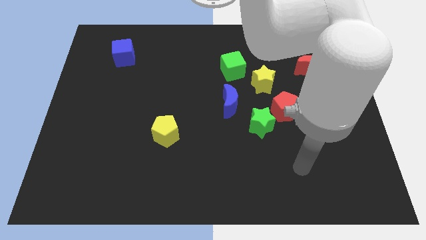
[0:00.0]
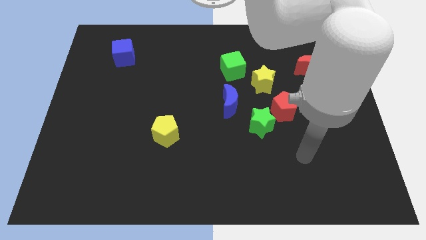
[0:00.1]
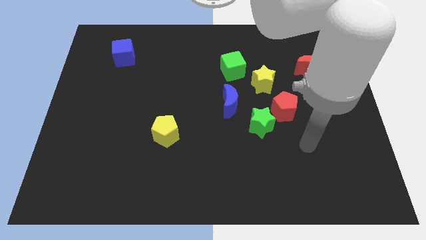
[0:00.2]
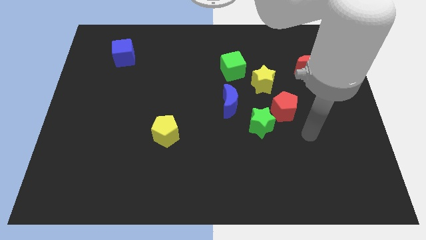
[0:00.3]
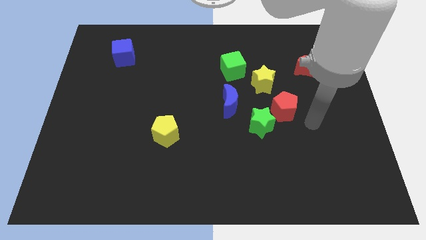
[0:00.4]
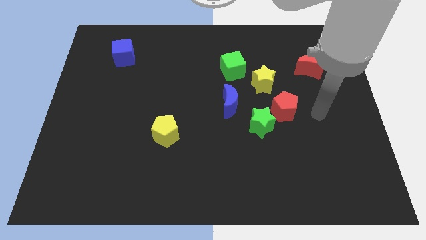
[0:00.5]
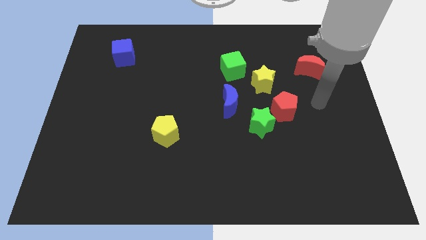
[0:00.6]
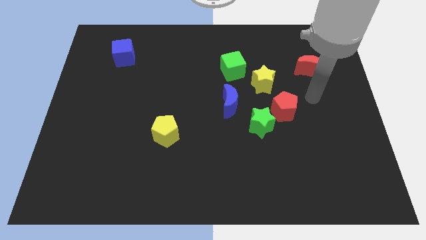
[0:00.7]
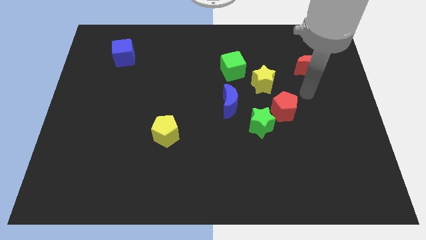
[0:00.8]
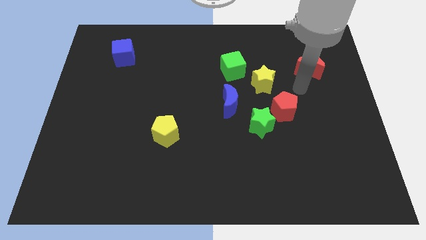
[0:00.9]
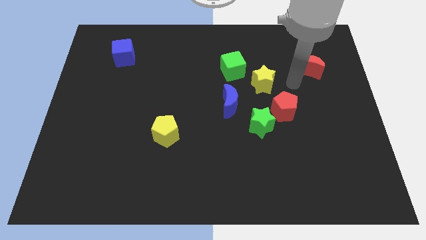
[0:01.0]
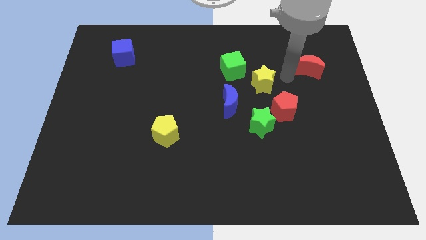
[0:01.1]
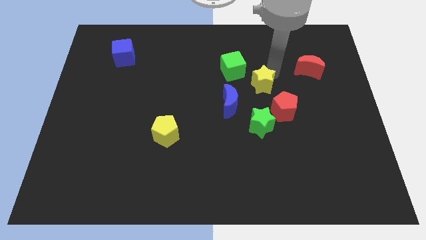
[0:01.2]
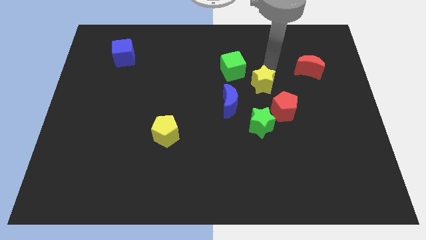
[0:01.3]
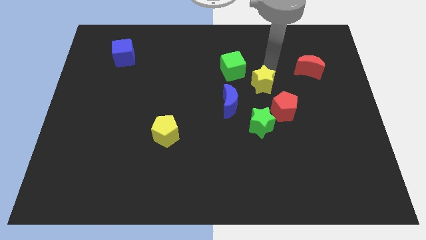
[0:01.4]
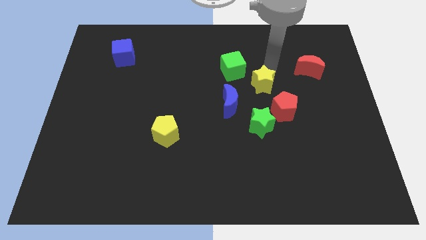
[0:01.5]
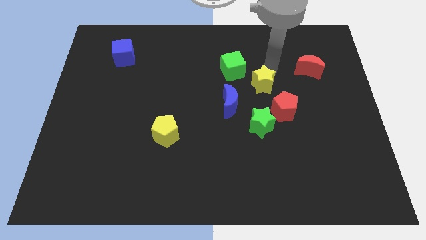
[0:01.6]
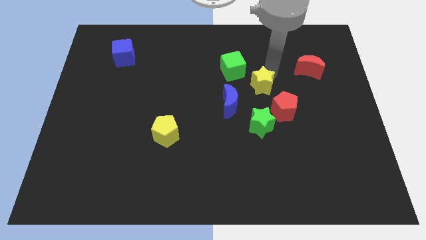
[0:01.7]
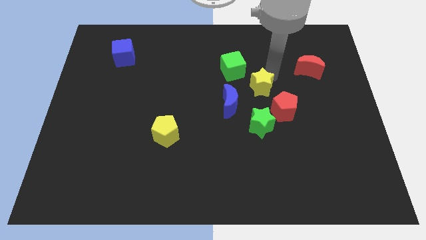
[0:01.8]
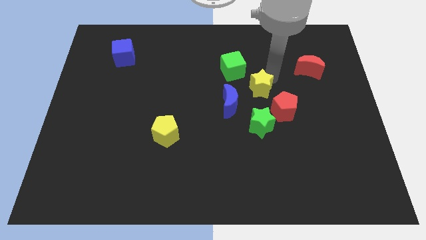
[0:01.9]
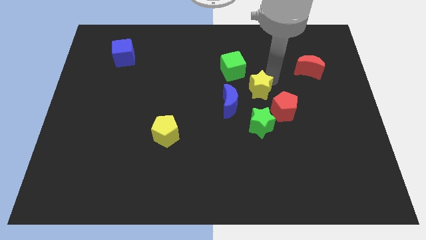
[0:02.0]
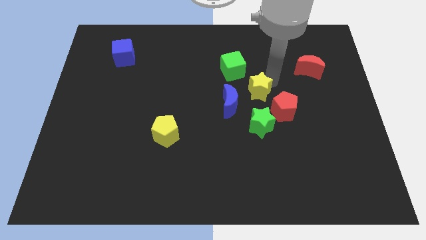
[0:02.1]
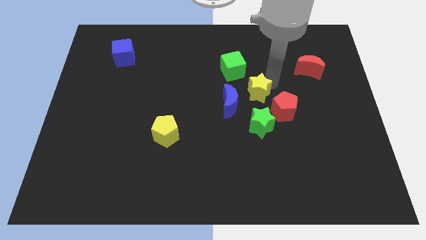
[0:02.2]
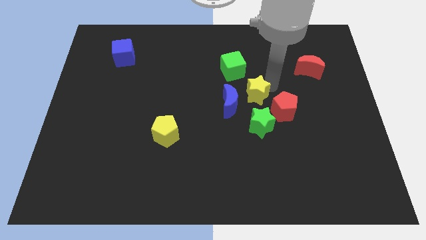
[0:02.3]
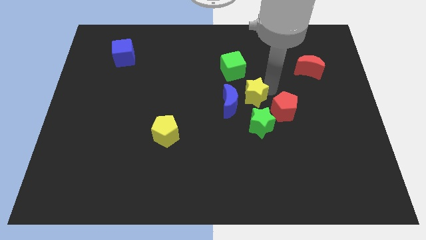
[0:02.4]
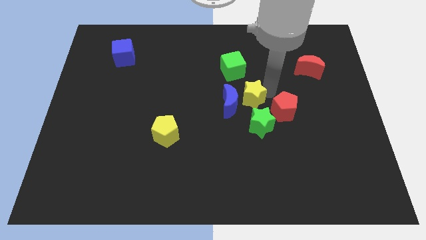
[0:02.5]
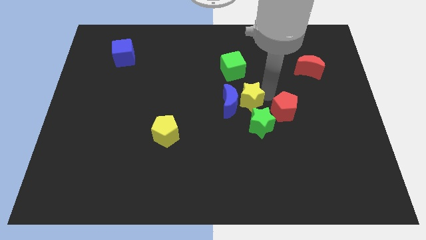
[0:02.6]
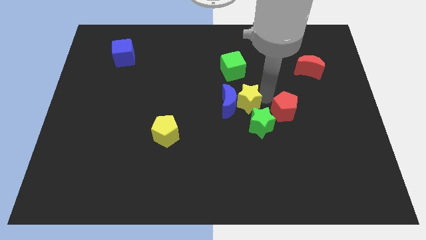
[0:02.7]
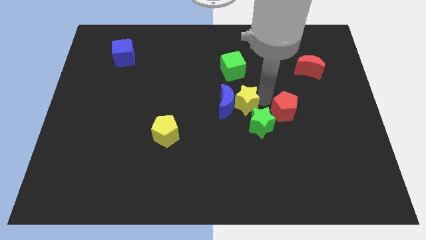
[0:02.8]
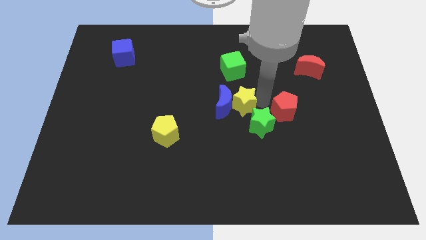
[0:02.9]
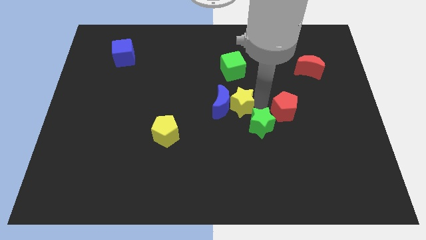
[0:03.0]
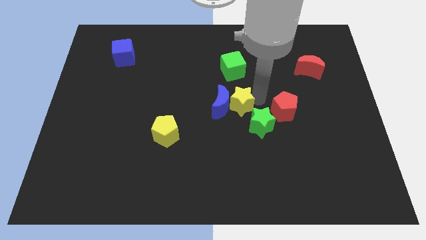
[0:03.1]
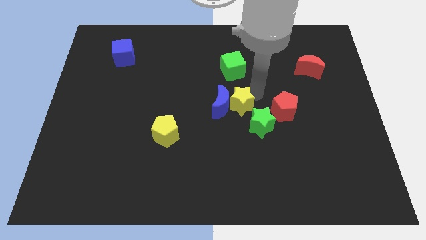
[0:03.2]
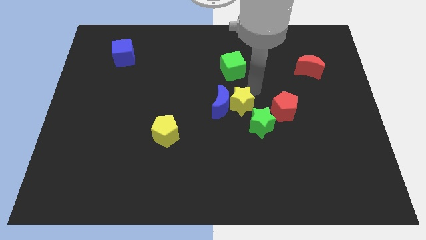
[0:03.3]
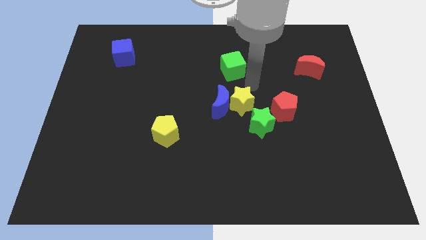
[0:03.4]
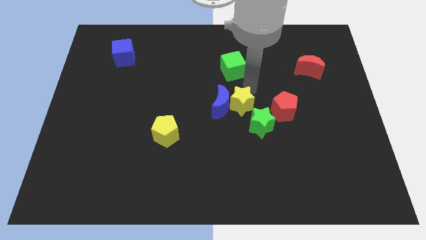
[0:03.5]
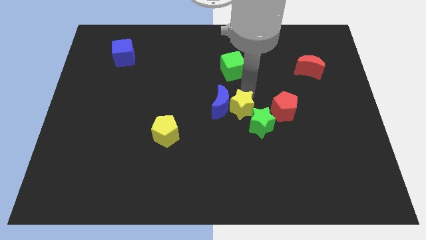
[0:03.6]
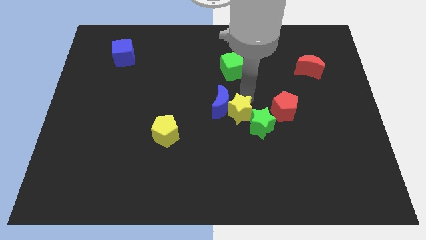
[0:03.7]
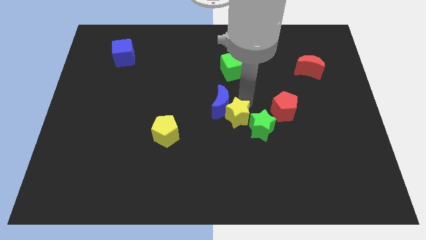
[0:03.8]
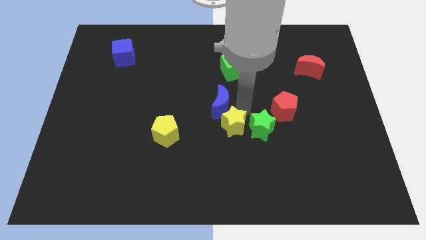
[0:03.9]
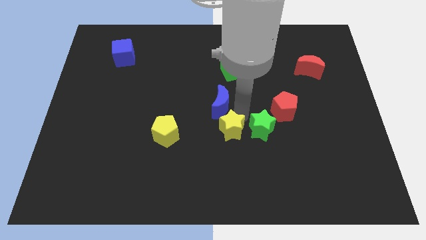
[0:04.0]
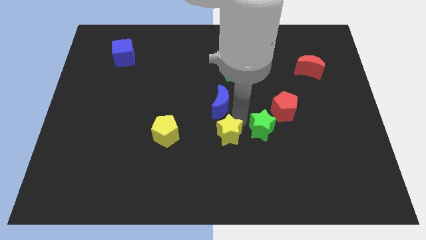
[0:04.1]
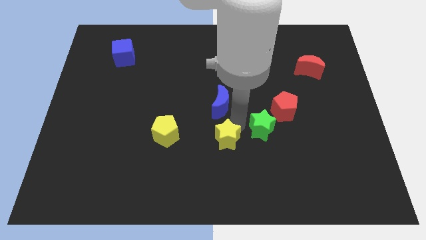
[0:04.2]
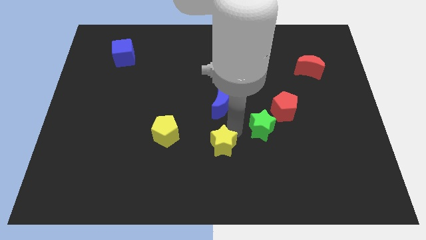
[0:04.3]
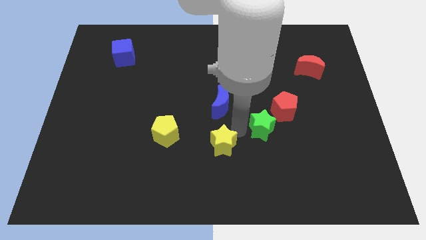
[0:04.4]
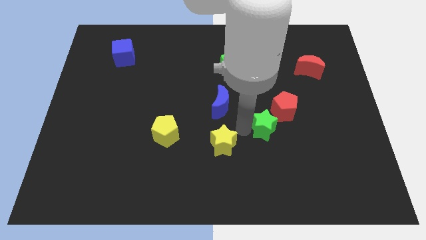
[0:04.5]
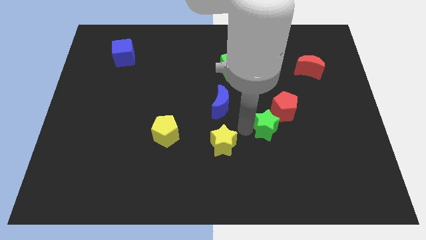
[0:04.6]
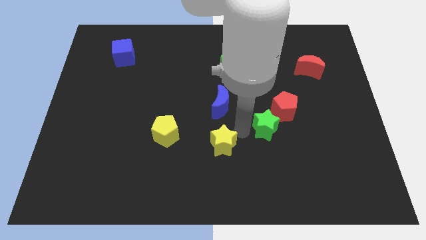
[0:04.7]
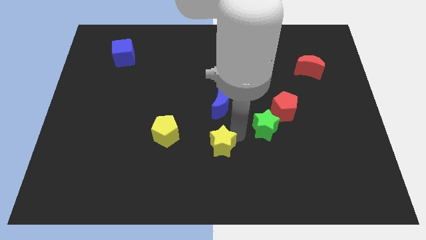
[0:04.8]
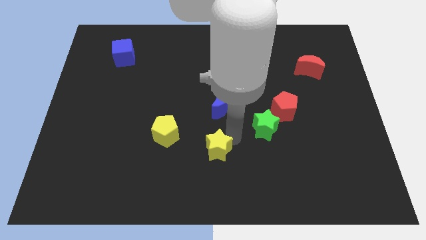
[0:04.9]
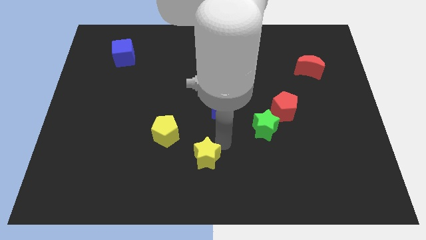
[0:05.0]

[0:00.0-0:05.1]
push the yellow star to the bottom

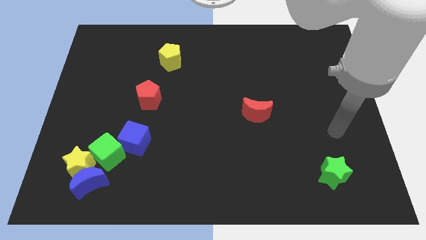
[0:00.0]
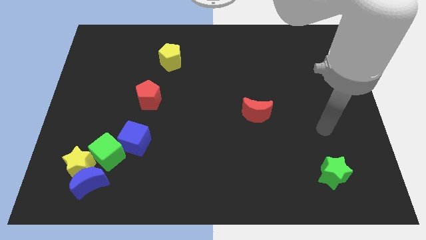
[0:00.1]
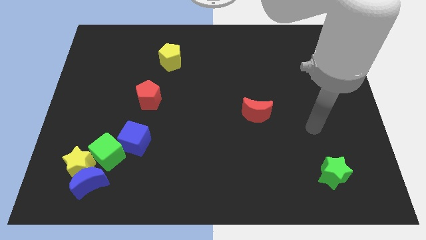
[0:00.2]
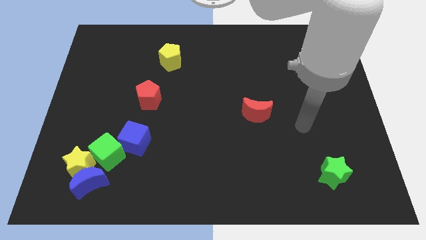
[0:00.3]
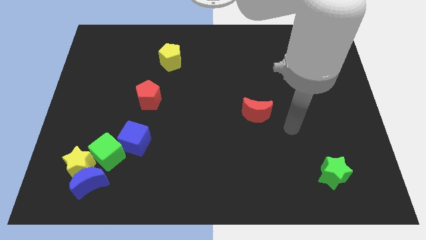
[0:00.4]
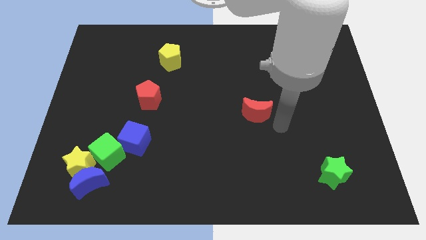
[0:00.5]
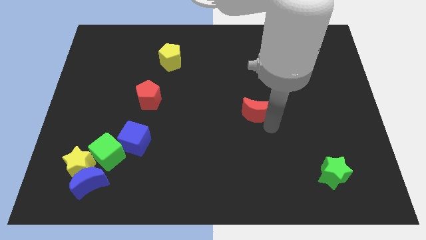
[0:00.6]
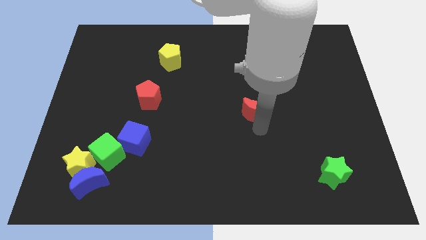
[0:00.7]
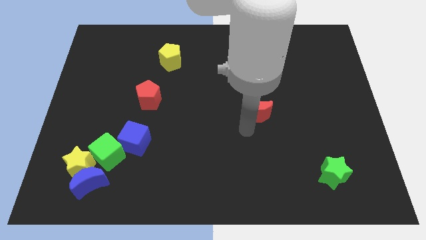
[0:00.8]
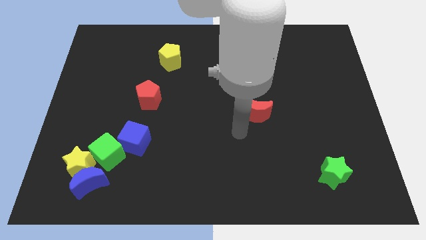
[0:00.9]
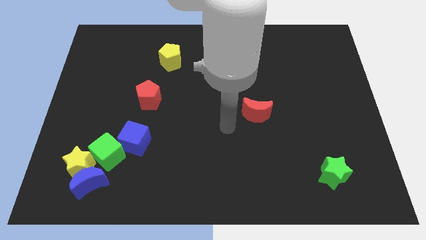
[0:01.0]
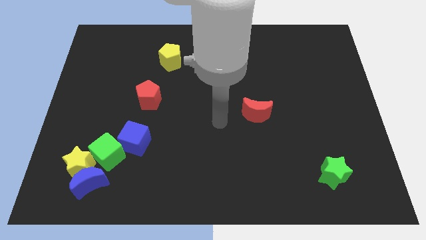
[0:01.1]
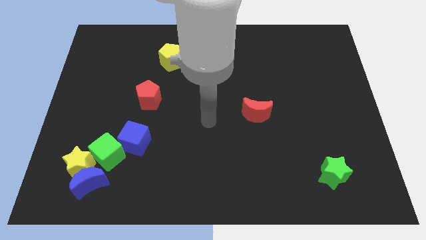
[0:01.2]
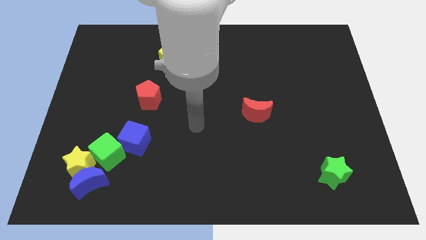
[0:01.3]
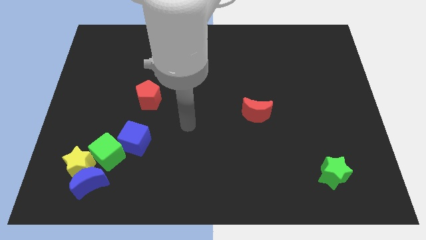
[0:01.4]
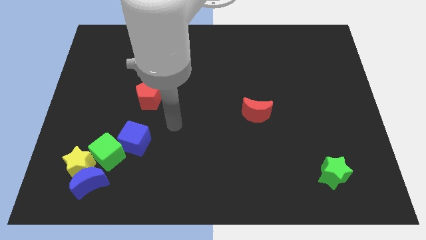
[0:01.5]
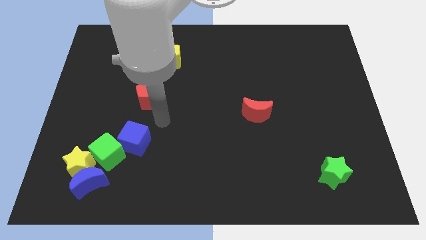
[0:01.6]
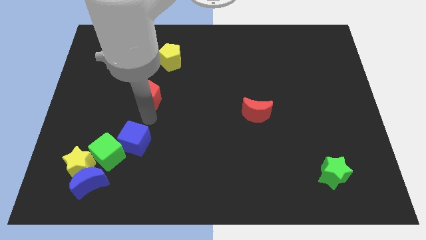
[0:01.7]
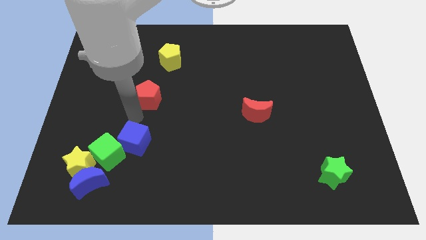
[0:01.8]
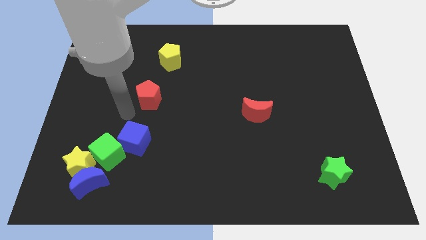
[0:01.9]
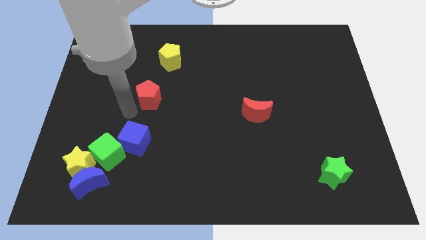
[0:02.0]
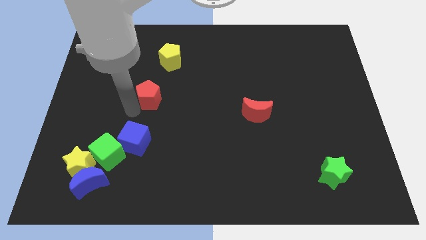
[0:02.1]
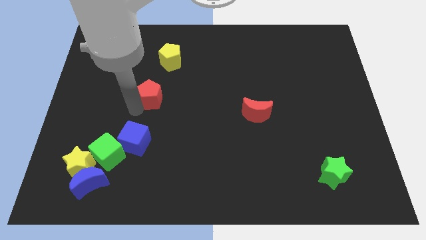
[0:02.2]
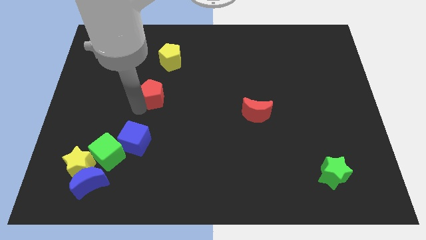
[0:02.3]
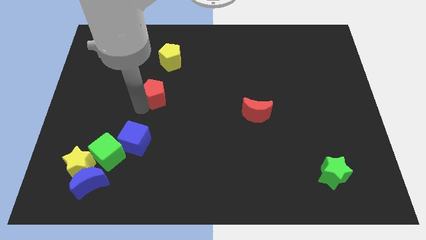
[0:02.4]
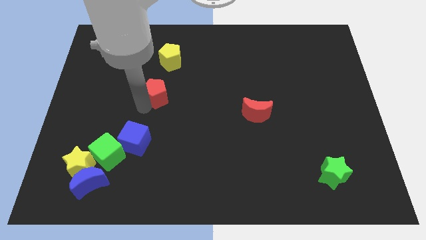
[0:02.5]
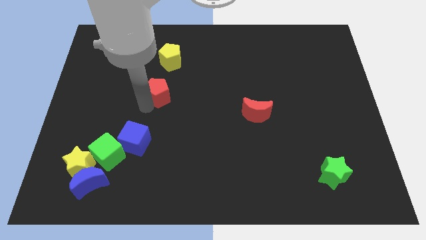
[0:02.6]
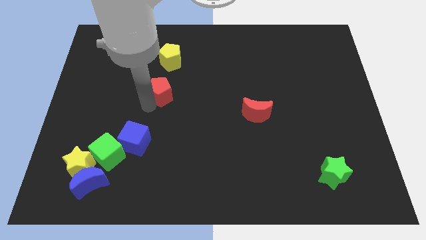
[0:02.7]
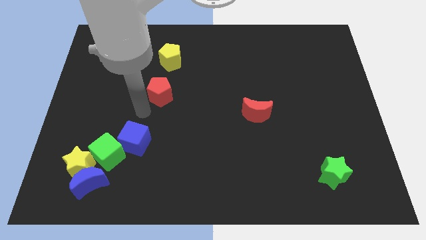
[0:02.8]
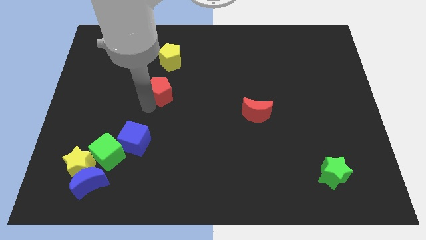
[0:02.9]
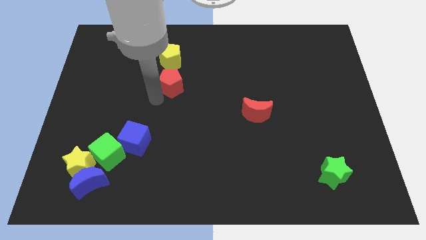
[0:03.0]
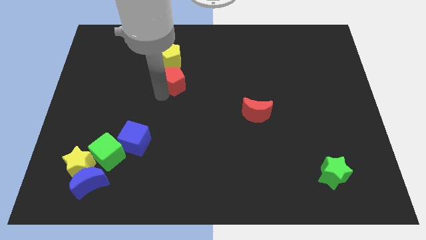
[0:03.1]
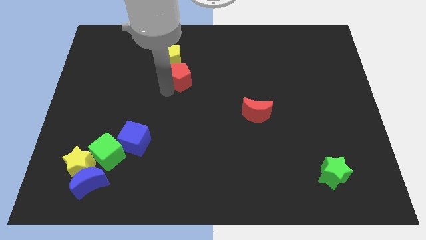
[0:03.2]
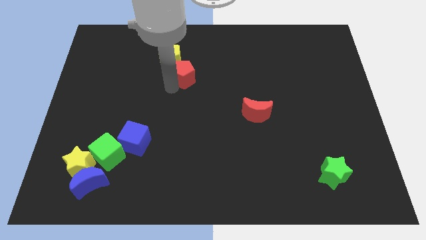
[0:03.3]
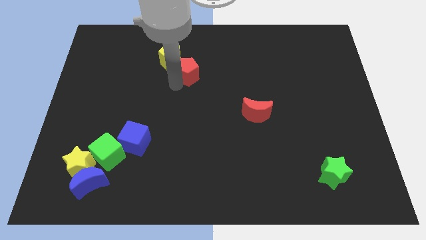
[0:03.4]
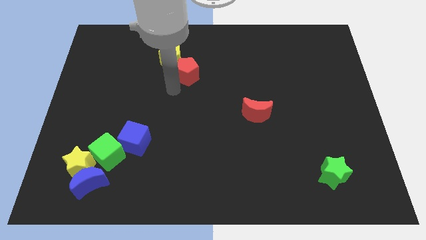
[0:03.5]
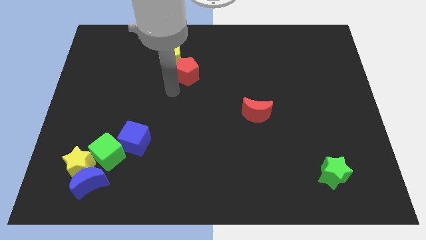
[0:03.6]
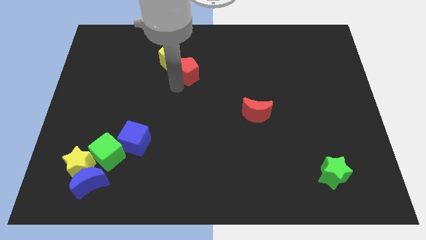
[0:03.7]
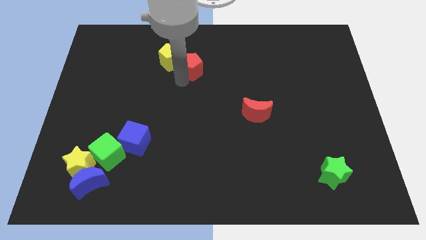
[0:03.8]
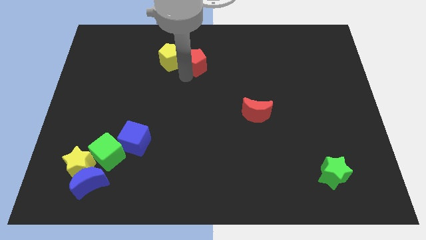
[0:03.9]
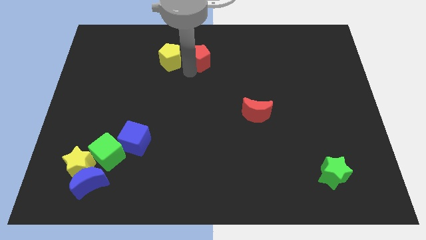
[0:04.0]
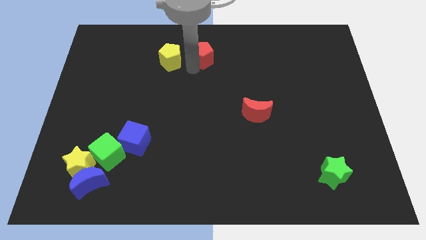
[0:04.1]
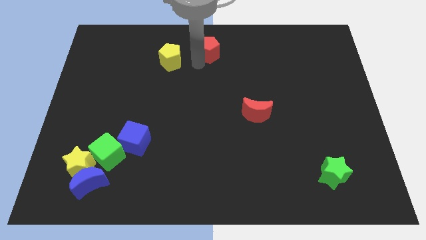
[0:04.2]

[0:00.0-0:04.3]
push the red pentagon to the top
